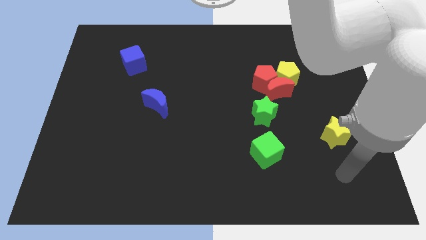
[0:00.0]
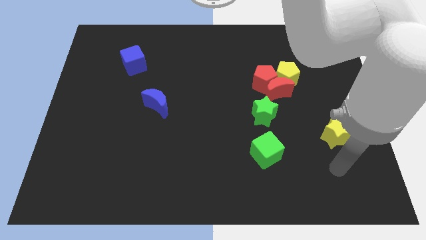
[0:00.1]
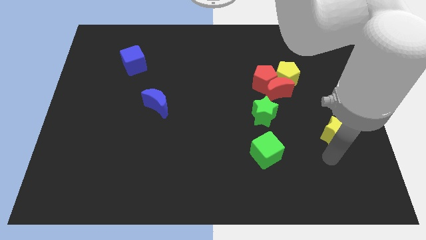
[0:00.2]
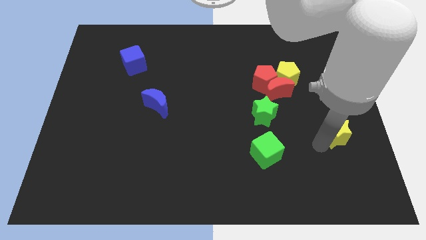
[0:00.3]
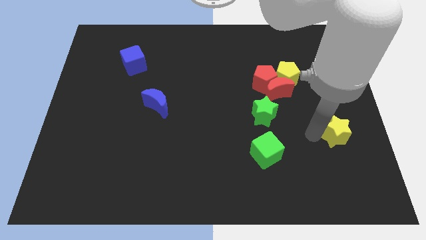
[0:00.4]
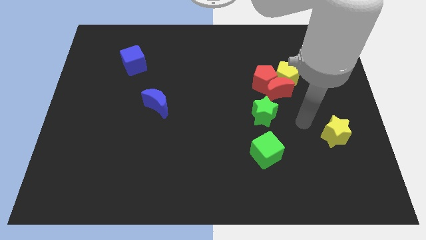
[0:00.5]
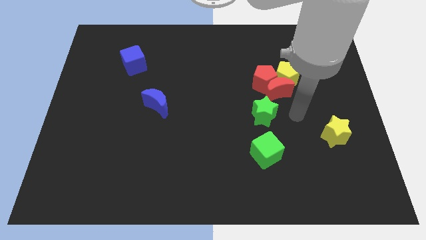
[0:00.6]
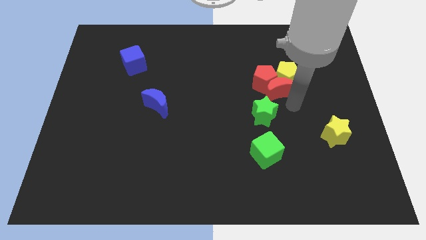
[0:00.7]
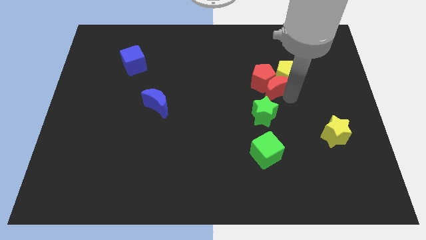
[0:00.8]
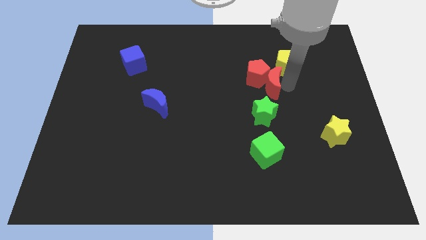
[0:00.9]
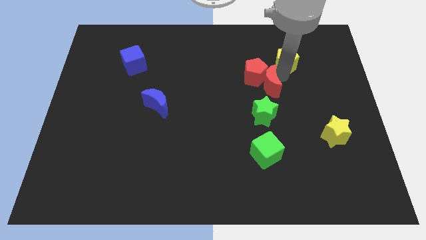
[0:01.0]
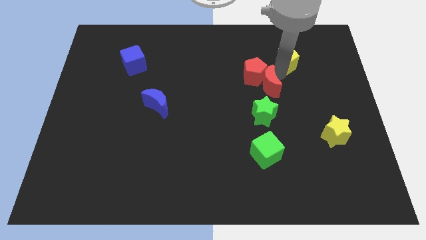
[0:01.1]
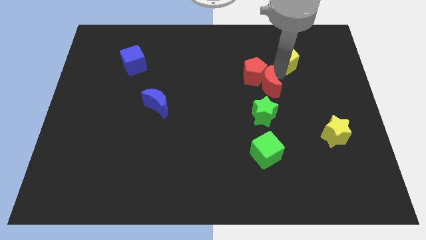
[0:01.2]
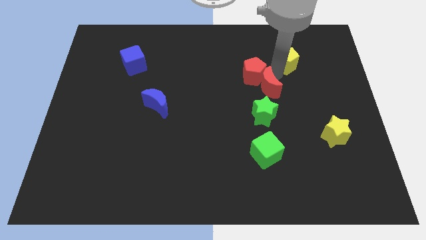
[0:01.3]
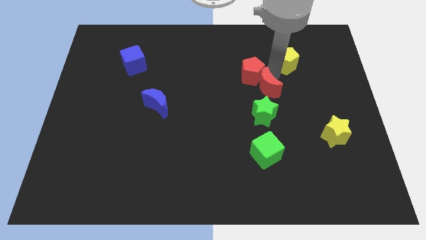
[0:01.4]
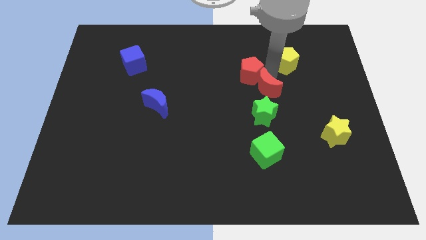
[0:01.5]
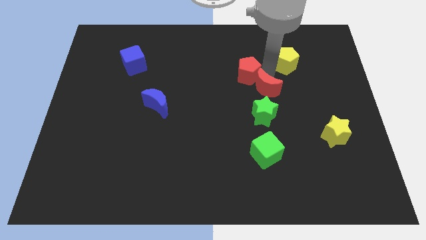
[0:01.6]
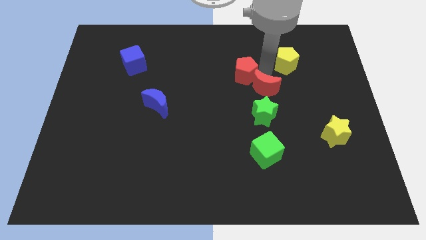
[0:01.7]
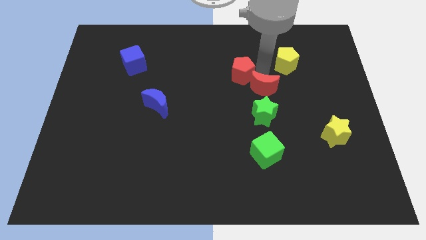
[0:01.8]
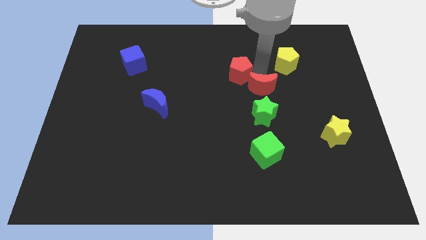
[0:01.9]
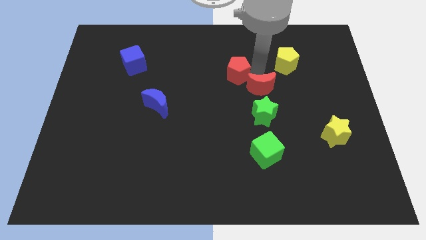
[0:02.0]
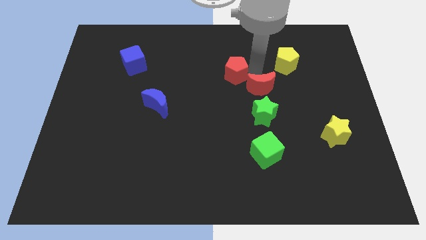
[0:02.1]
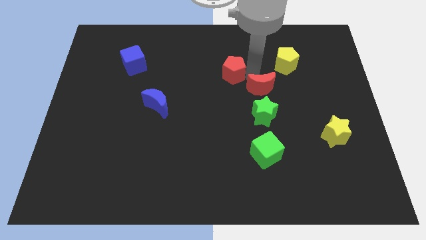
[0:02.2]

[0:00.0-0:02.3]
separate the red pentagon from the red moon and yellow pentagon

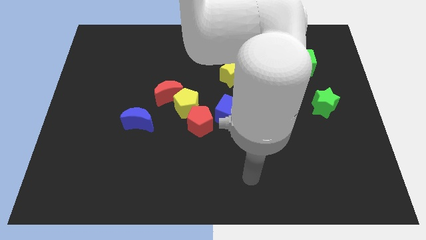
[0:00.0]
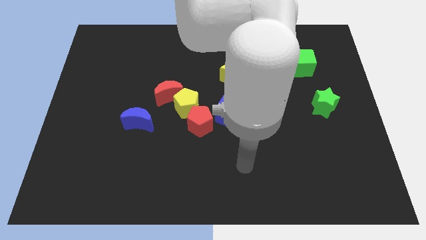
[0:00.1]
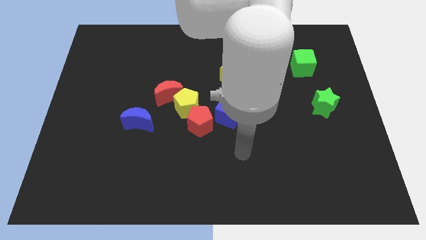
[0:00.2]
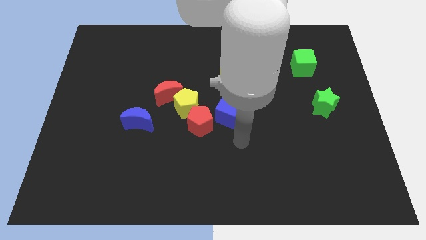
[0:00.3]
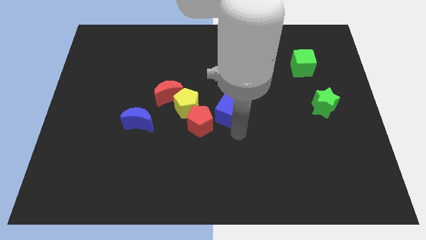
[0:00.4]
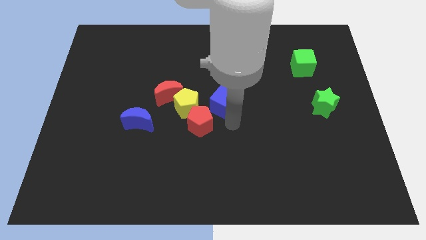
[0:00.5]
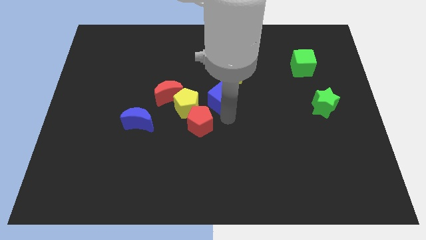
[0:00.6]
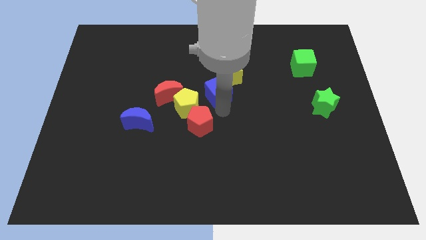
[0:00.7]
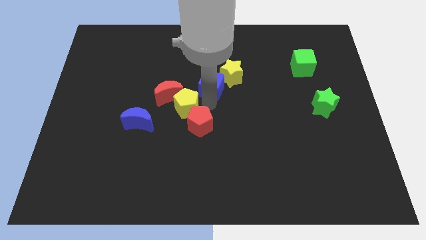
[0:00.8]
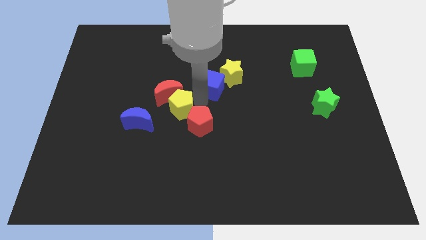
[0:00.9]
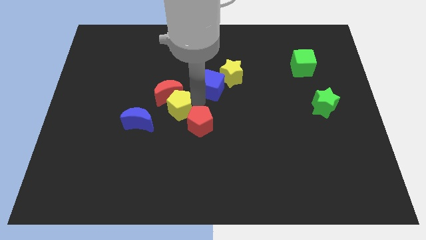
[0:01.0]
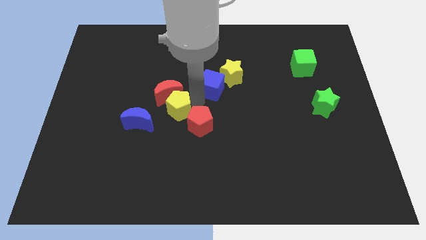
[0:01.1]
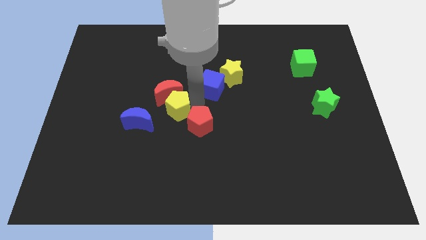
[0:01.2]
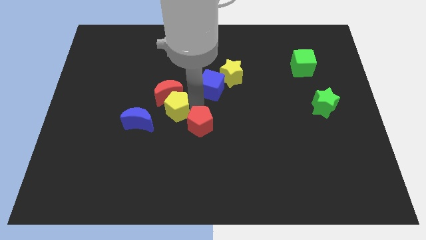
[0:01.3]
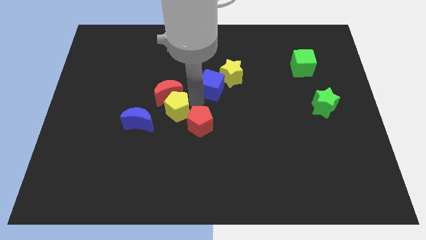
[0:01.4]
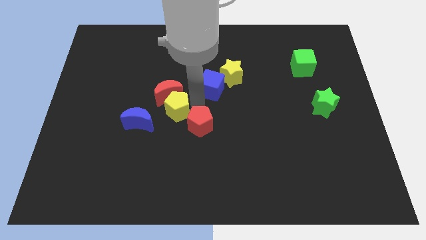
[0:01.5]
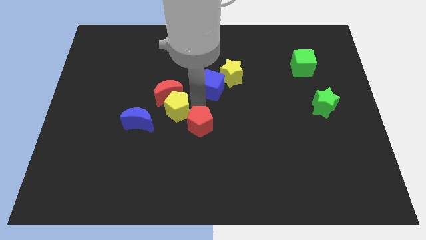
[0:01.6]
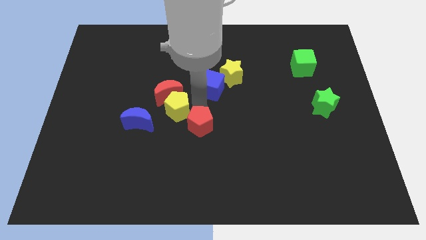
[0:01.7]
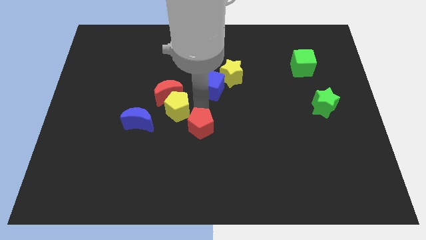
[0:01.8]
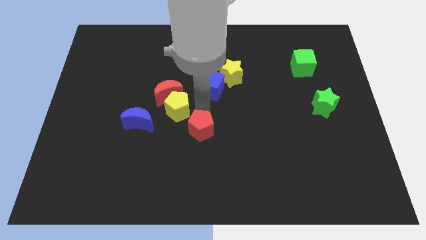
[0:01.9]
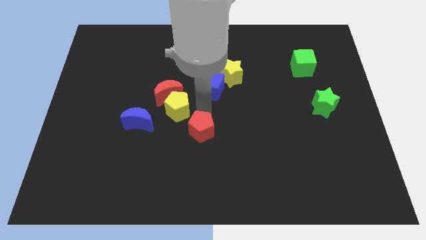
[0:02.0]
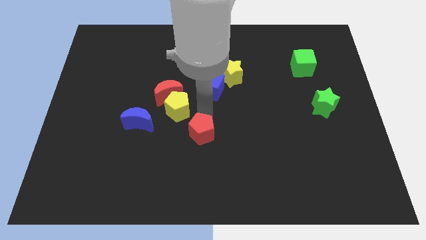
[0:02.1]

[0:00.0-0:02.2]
move the red pentagon away from the yellow pentagon and blue cube

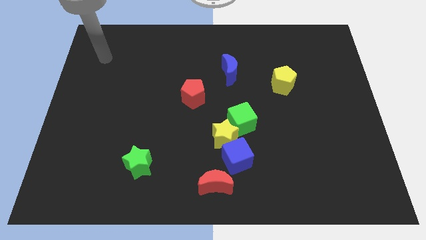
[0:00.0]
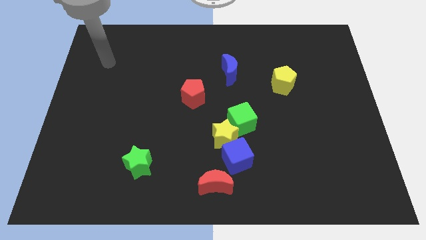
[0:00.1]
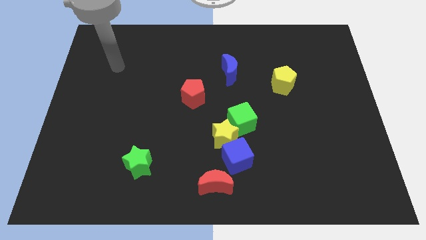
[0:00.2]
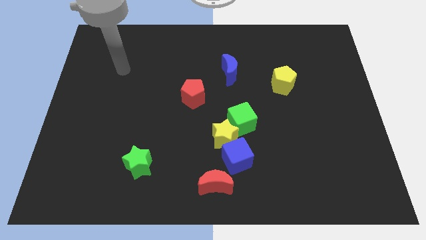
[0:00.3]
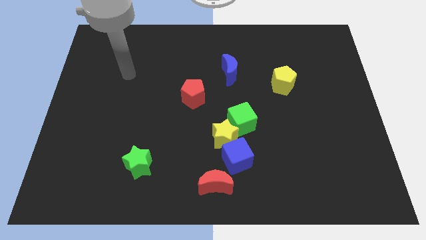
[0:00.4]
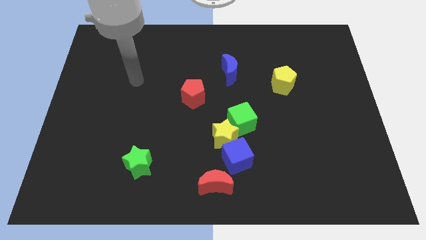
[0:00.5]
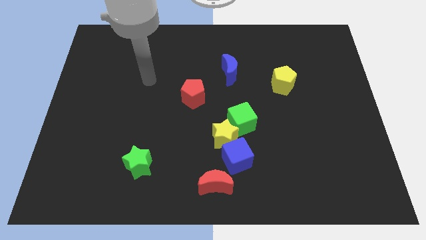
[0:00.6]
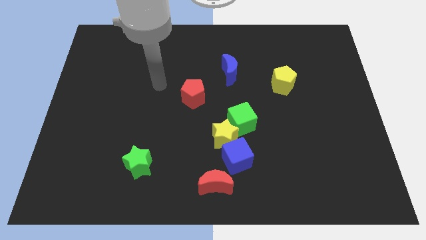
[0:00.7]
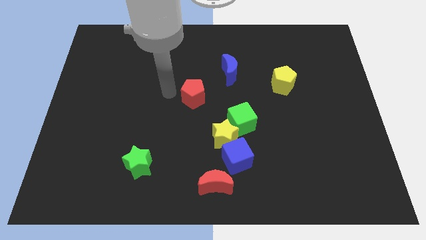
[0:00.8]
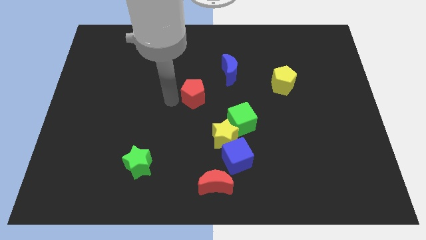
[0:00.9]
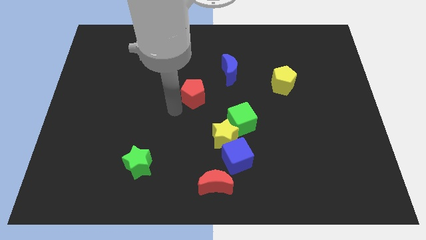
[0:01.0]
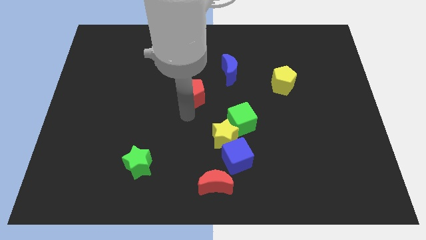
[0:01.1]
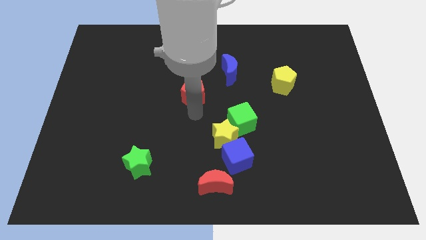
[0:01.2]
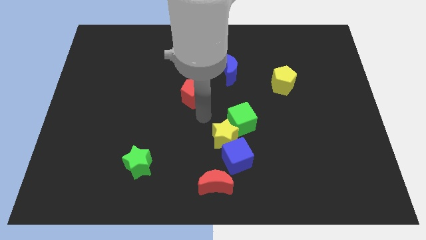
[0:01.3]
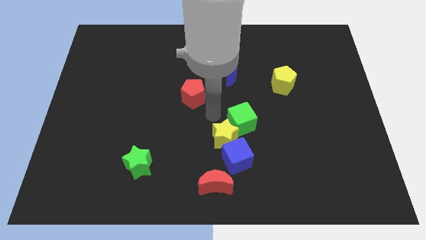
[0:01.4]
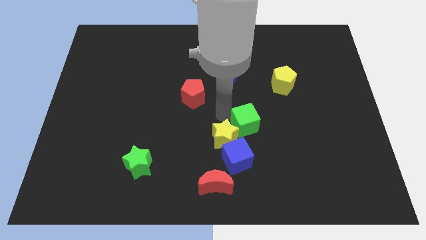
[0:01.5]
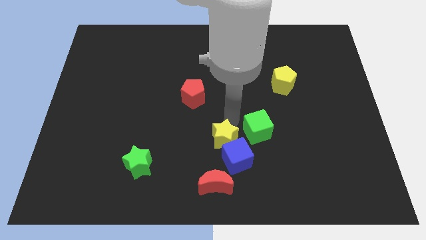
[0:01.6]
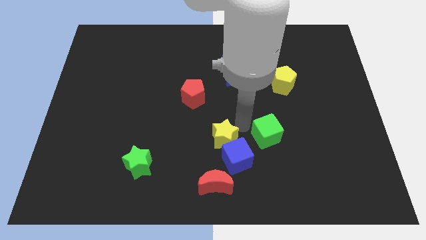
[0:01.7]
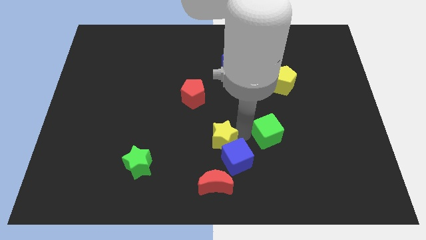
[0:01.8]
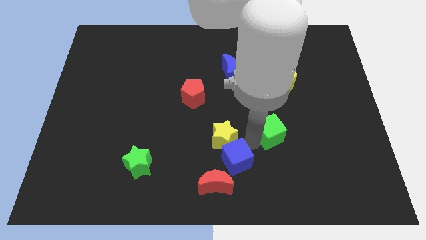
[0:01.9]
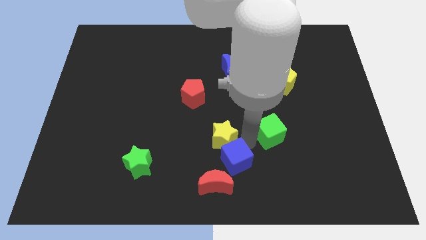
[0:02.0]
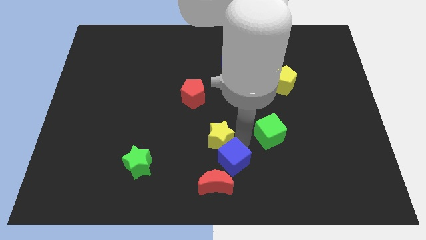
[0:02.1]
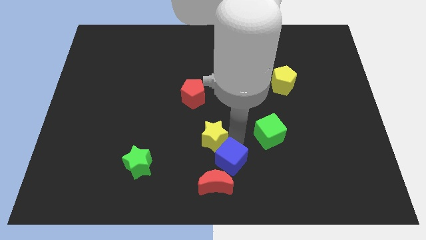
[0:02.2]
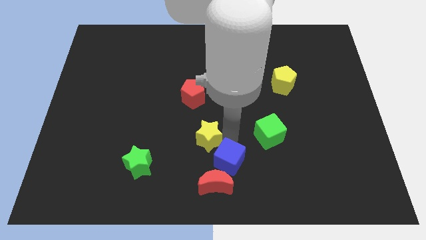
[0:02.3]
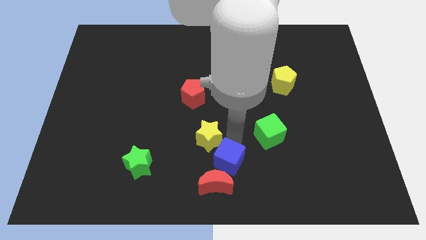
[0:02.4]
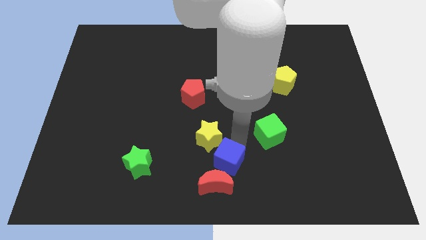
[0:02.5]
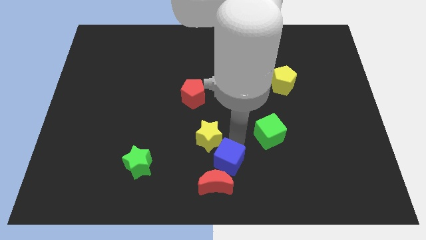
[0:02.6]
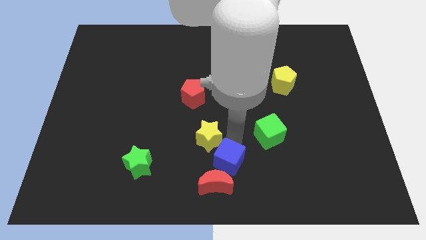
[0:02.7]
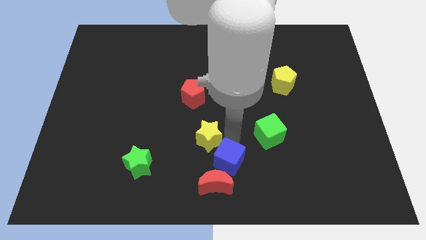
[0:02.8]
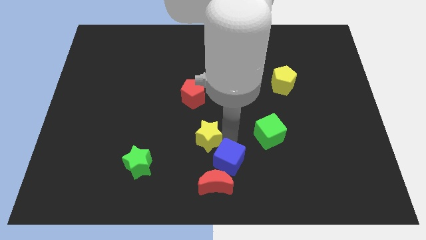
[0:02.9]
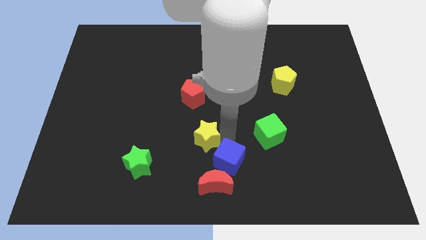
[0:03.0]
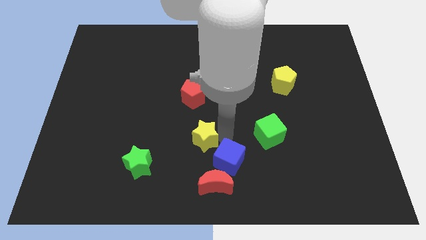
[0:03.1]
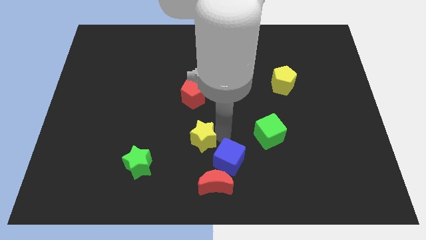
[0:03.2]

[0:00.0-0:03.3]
pull the yellow star apart from the green cube and blue cube

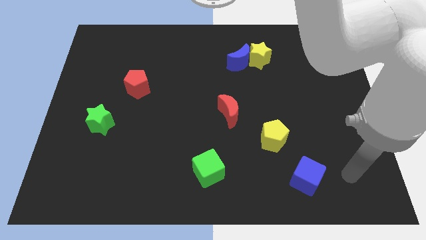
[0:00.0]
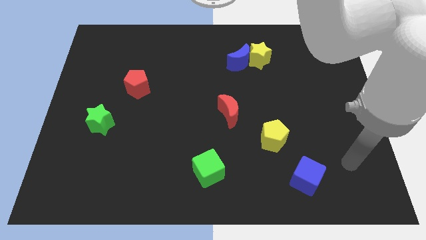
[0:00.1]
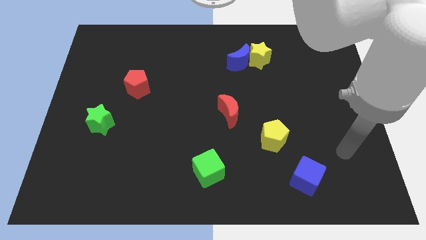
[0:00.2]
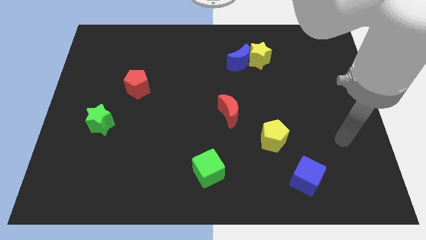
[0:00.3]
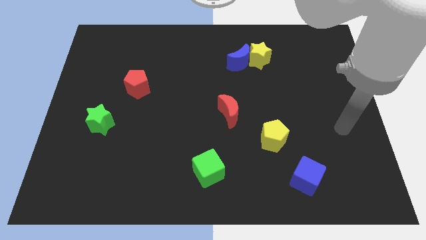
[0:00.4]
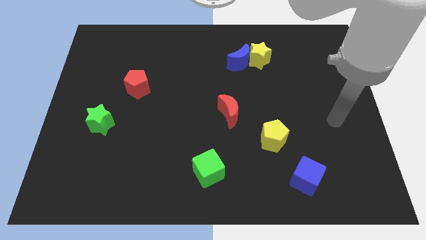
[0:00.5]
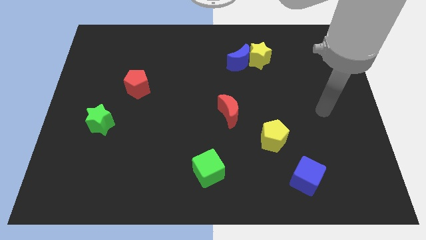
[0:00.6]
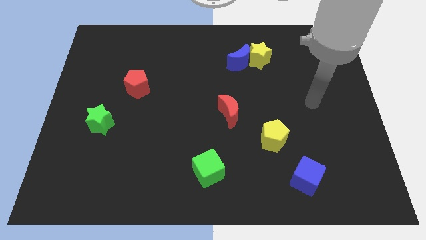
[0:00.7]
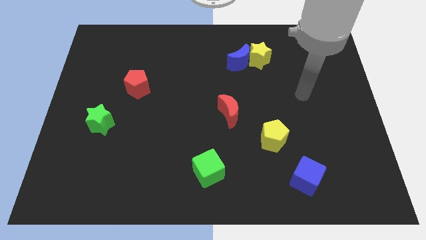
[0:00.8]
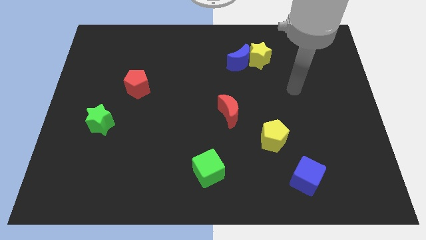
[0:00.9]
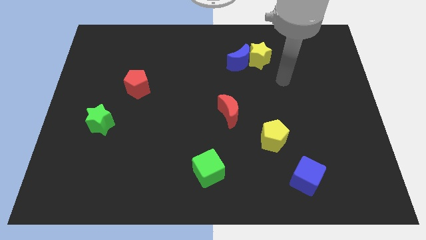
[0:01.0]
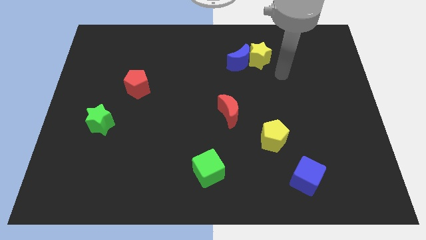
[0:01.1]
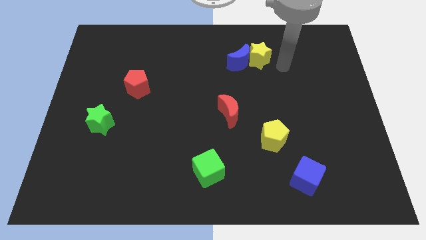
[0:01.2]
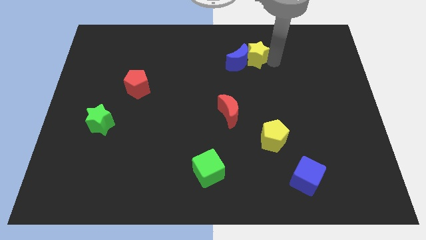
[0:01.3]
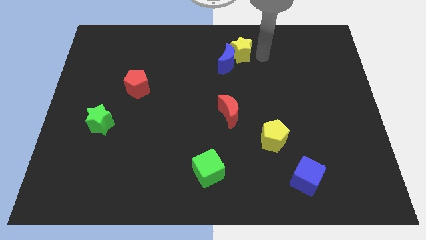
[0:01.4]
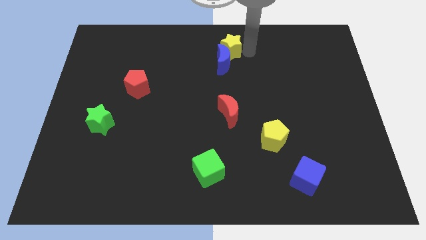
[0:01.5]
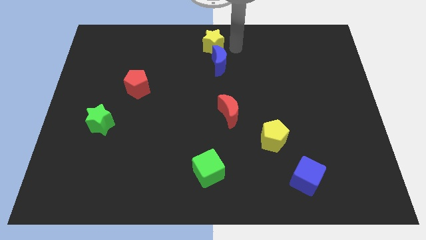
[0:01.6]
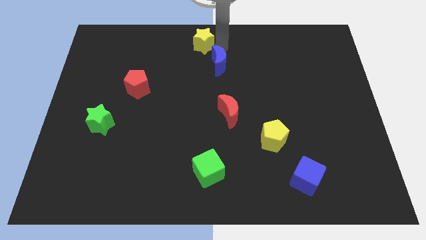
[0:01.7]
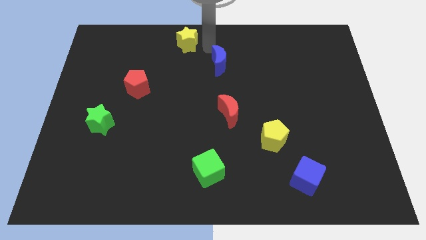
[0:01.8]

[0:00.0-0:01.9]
pull the blue moon apart from the yellow star
